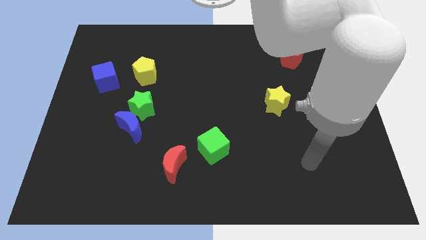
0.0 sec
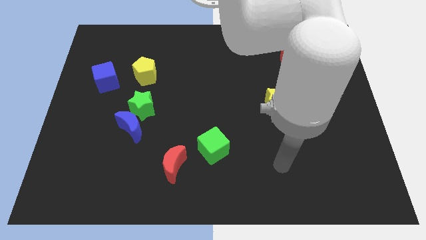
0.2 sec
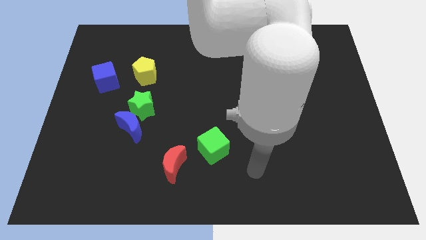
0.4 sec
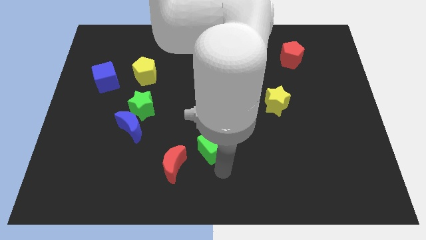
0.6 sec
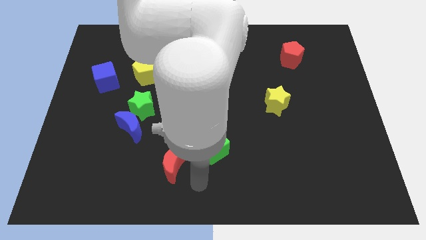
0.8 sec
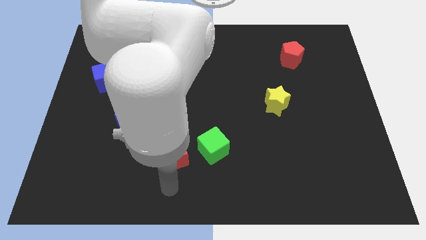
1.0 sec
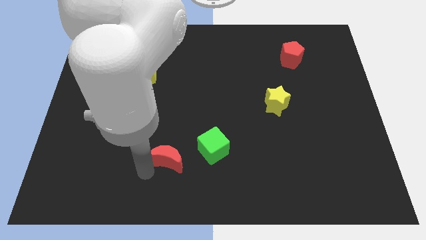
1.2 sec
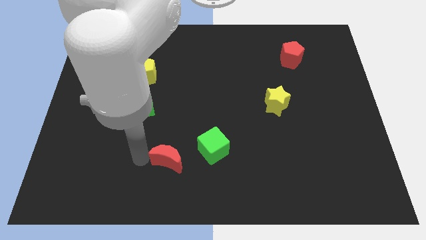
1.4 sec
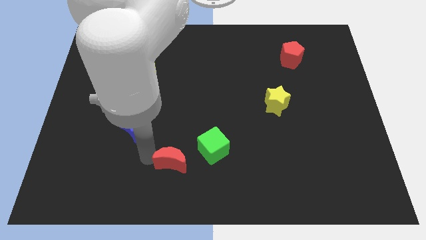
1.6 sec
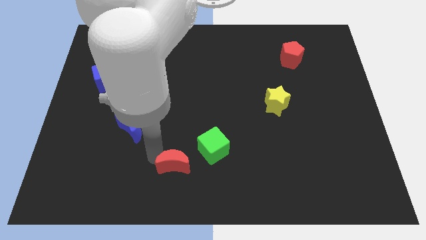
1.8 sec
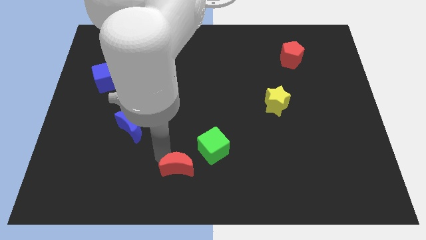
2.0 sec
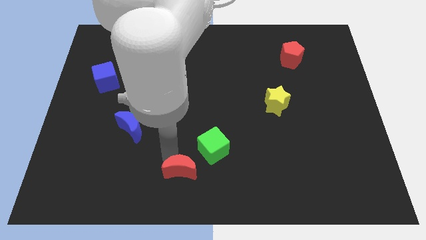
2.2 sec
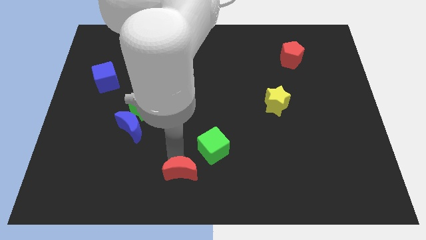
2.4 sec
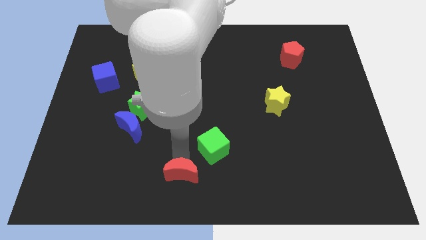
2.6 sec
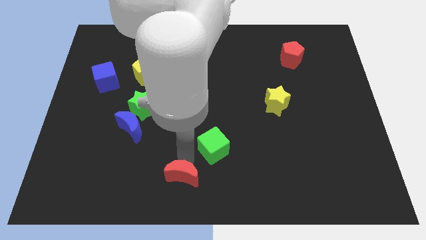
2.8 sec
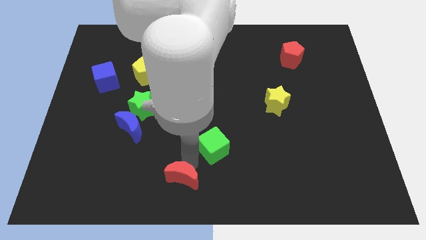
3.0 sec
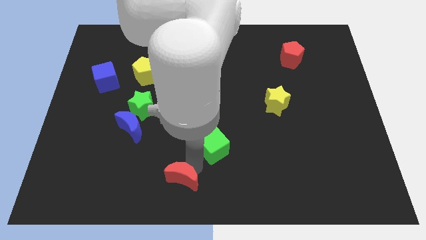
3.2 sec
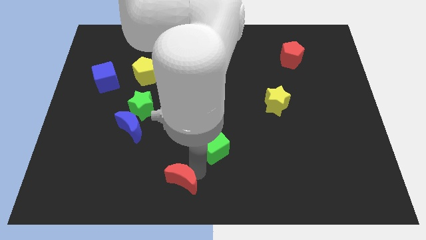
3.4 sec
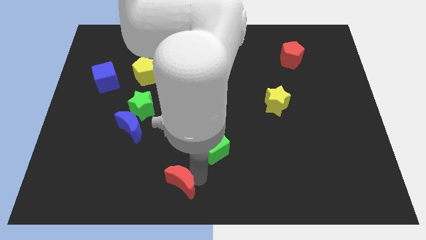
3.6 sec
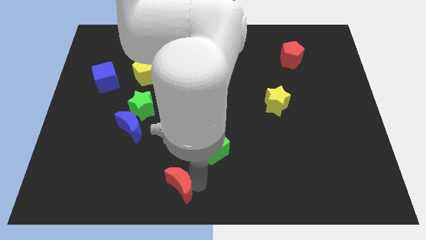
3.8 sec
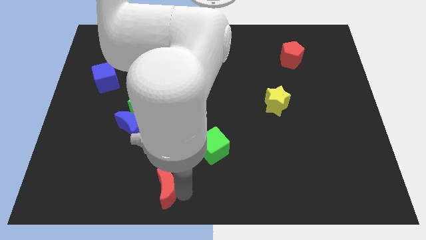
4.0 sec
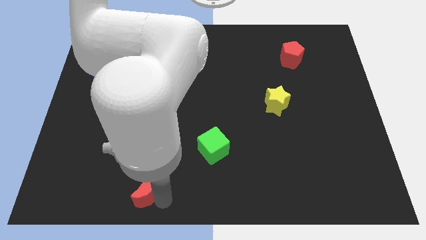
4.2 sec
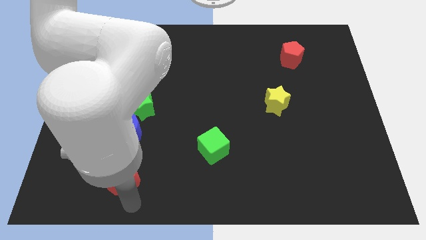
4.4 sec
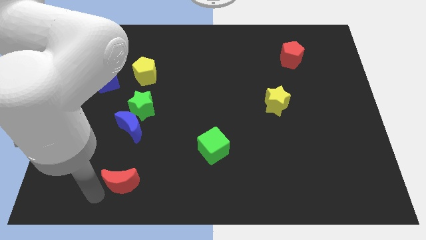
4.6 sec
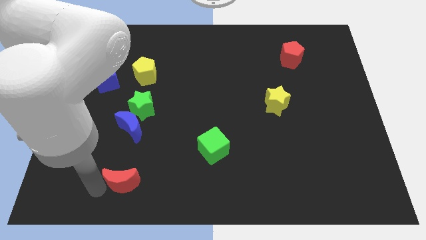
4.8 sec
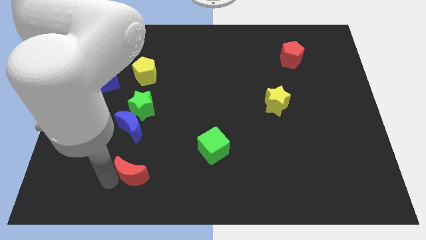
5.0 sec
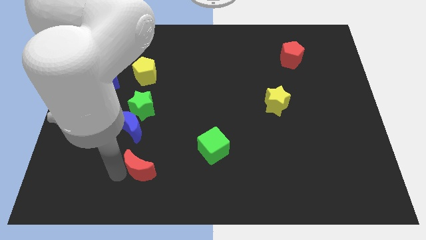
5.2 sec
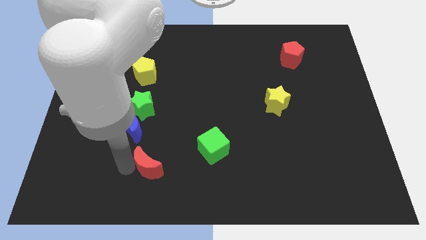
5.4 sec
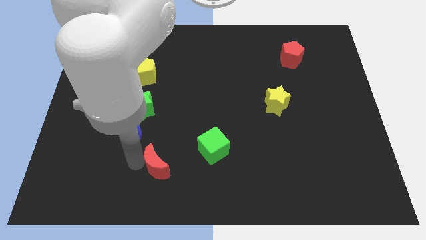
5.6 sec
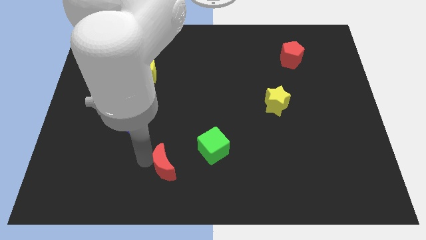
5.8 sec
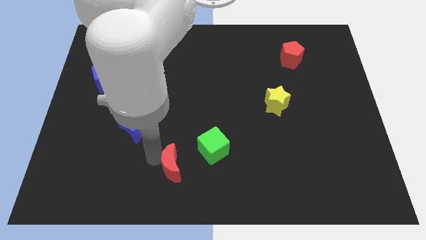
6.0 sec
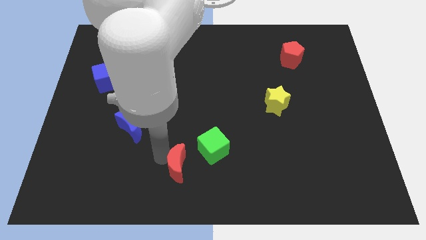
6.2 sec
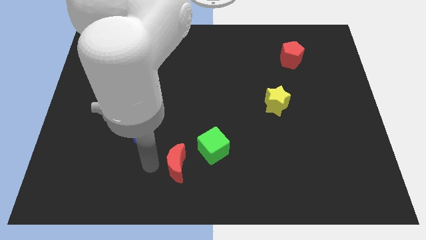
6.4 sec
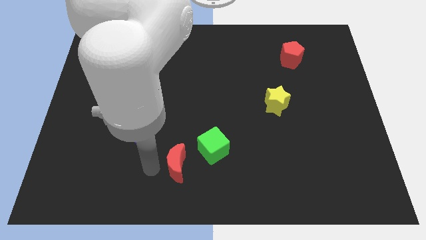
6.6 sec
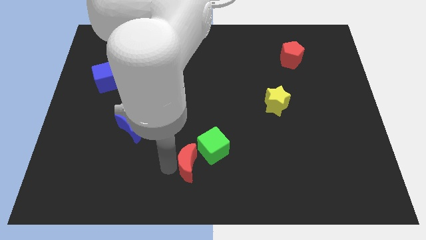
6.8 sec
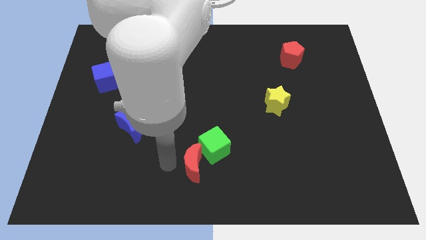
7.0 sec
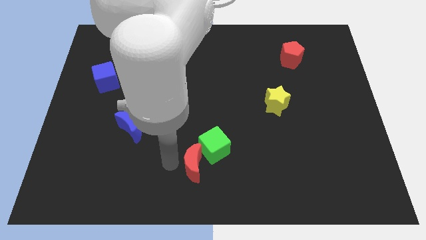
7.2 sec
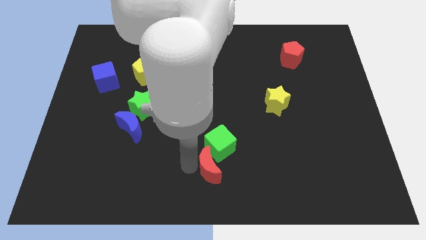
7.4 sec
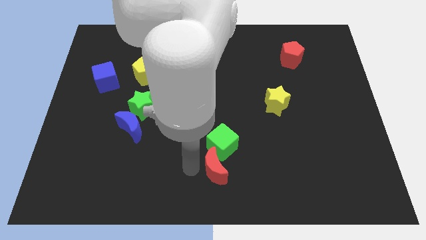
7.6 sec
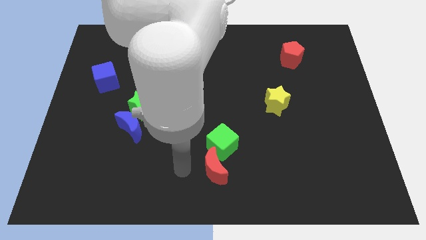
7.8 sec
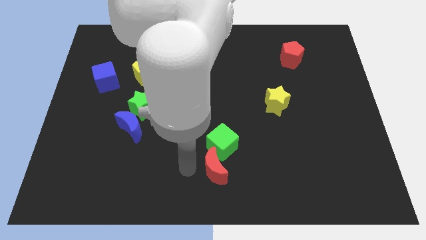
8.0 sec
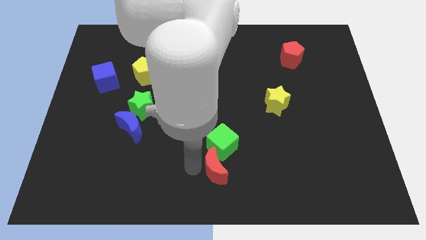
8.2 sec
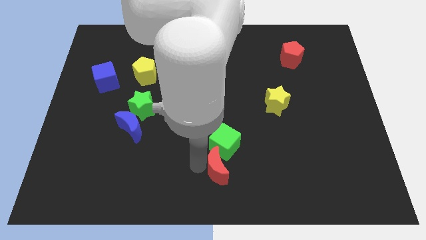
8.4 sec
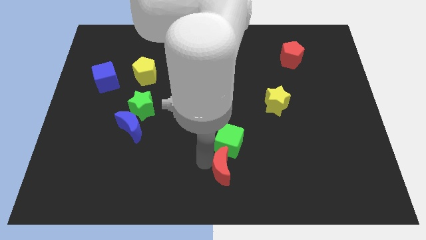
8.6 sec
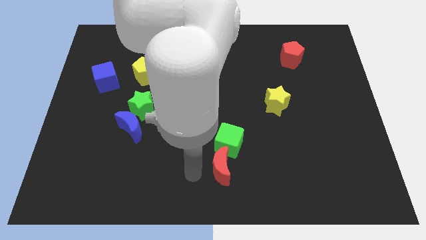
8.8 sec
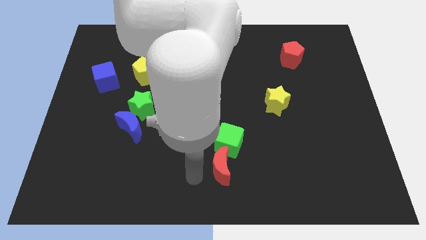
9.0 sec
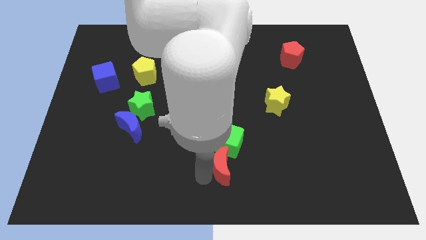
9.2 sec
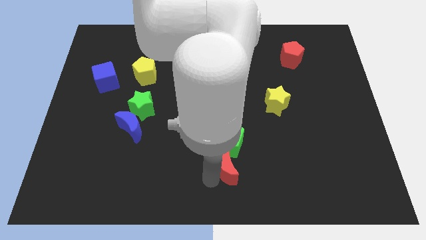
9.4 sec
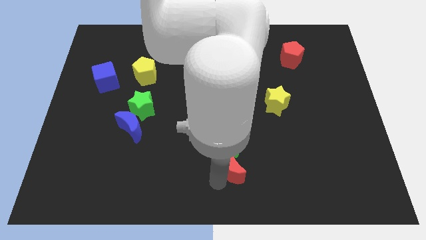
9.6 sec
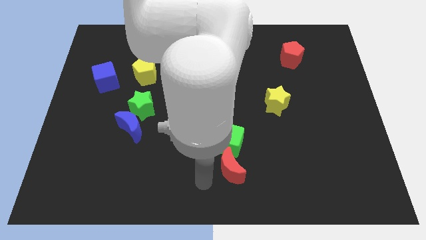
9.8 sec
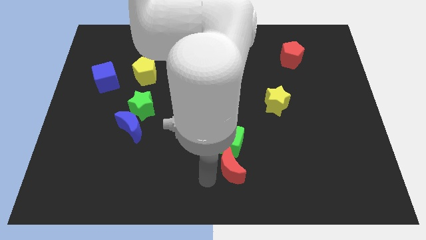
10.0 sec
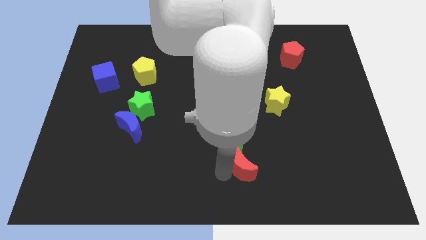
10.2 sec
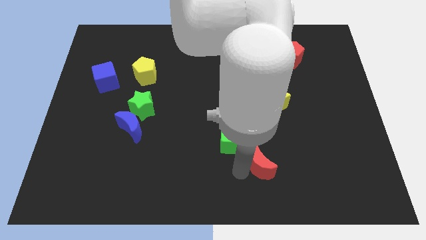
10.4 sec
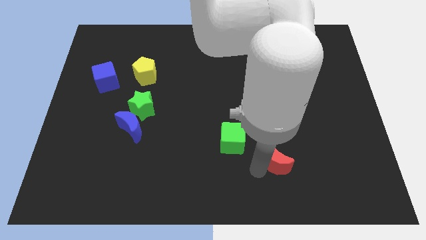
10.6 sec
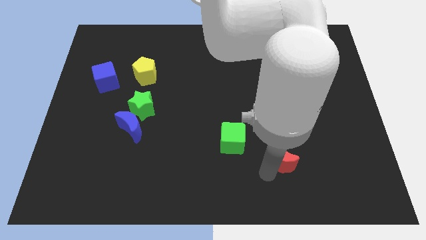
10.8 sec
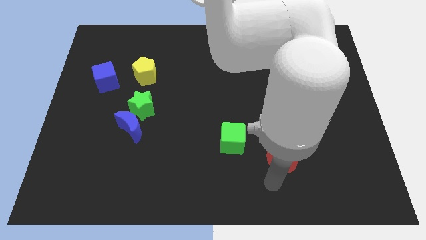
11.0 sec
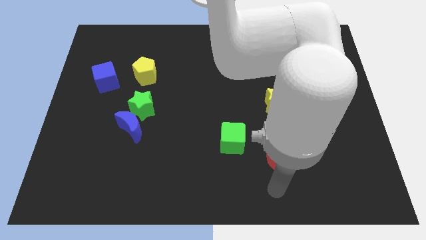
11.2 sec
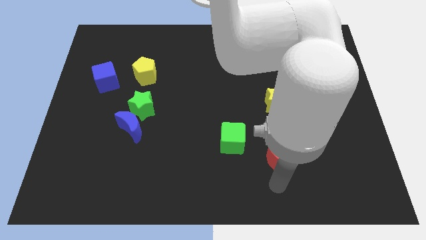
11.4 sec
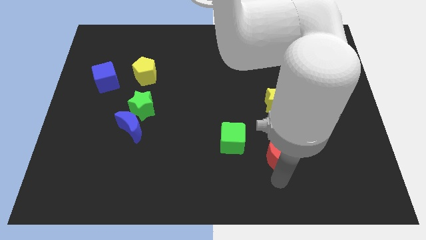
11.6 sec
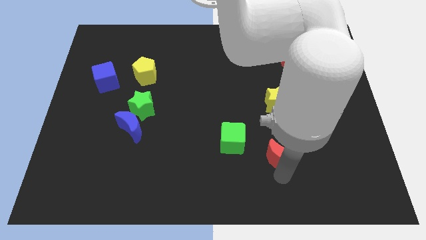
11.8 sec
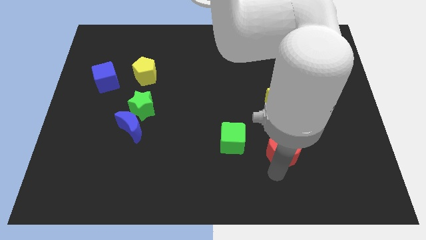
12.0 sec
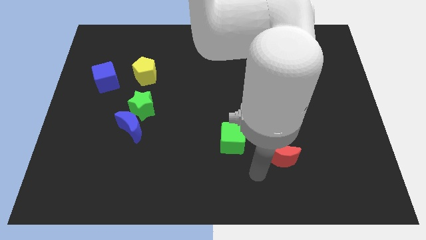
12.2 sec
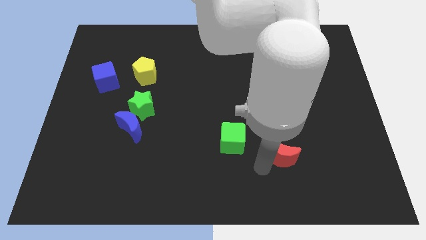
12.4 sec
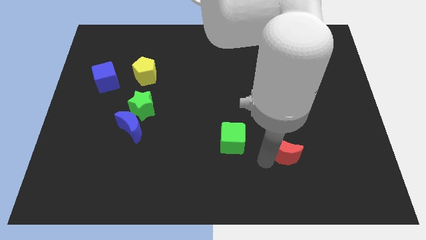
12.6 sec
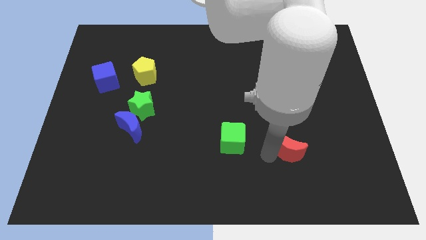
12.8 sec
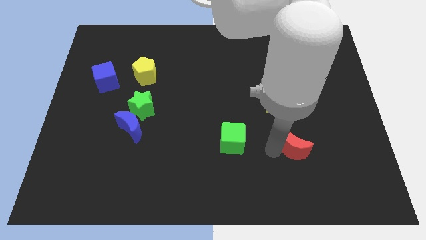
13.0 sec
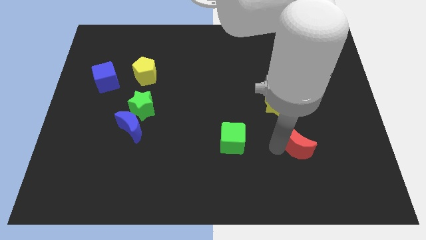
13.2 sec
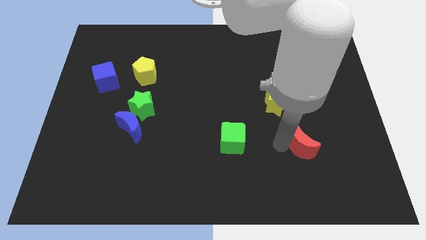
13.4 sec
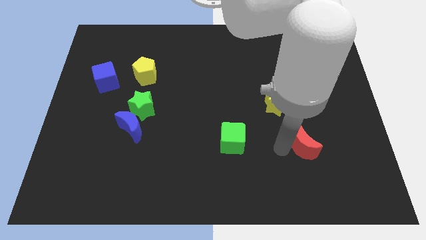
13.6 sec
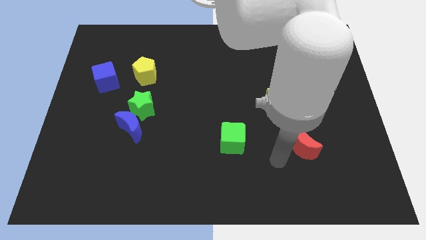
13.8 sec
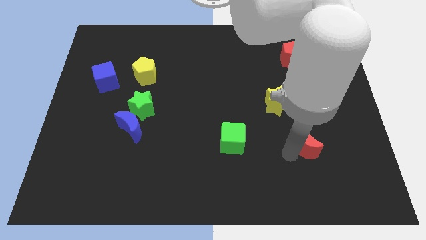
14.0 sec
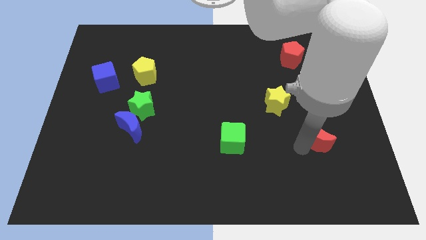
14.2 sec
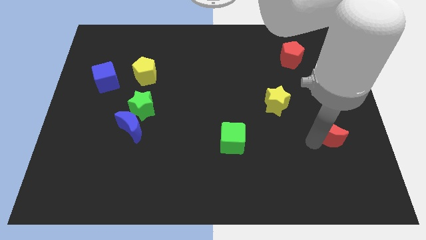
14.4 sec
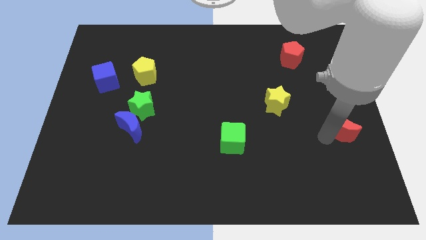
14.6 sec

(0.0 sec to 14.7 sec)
push the red moon to the center right
